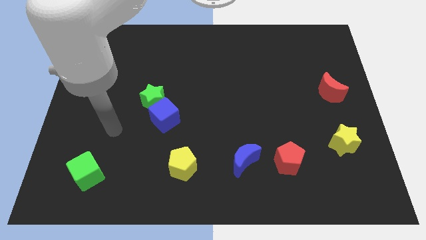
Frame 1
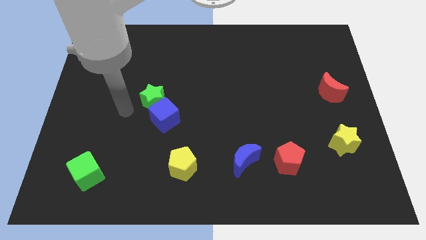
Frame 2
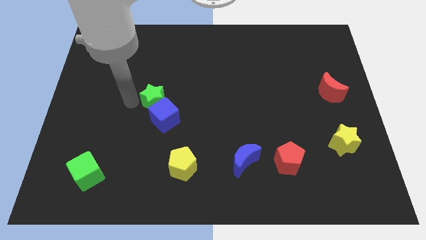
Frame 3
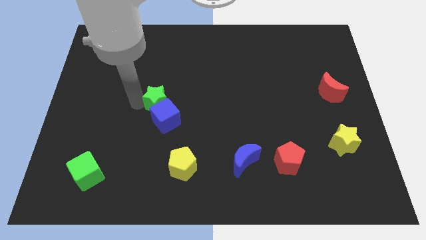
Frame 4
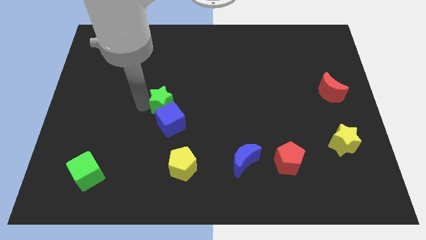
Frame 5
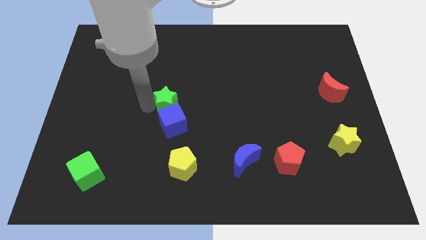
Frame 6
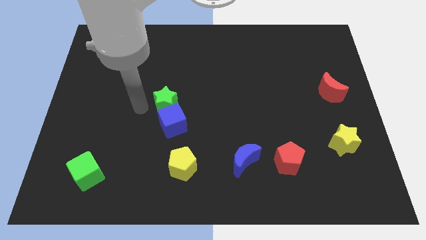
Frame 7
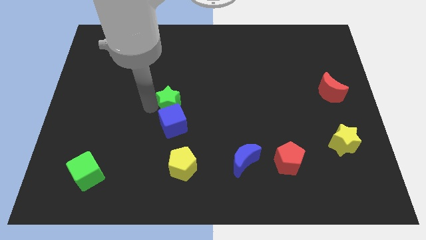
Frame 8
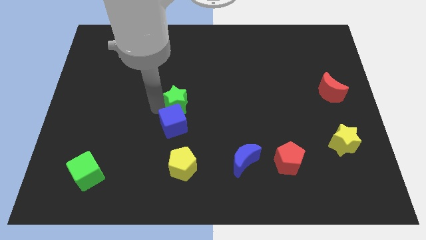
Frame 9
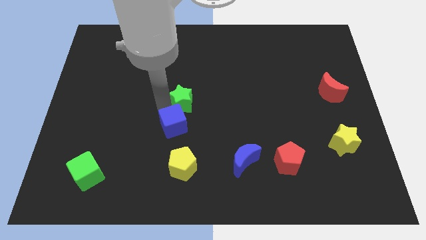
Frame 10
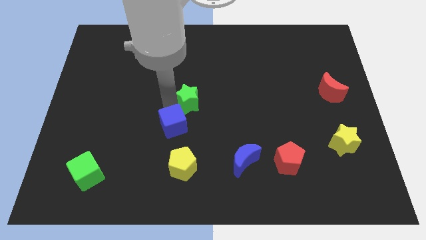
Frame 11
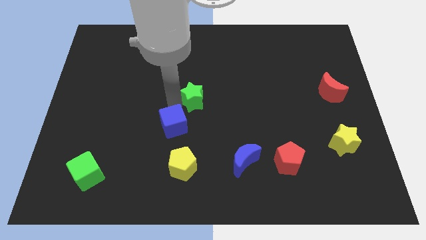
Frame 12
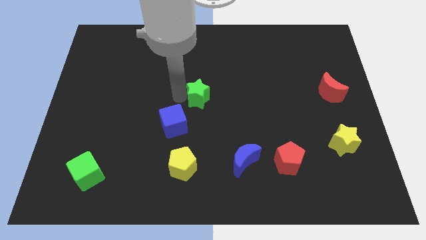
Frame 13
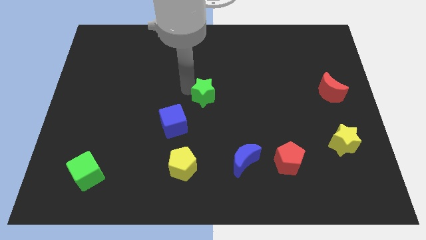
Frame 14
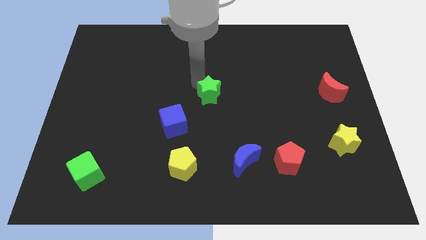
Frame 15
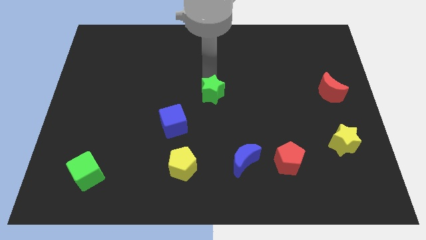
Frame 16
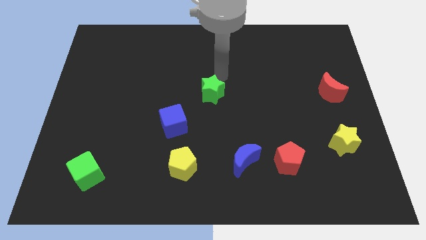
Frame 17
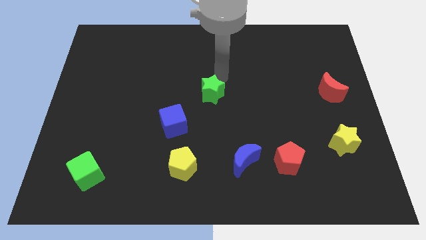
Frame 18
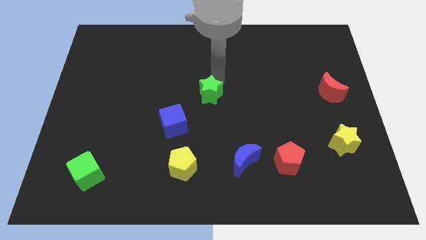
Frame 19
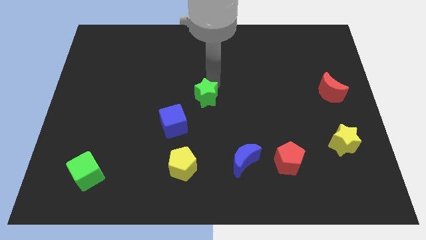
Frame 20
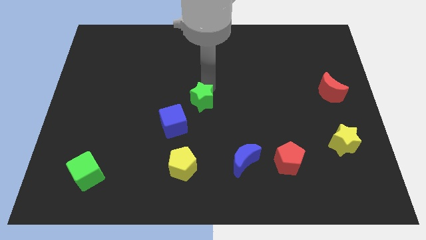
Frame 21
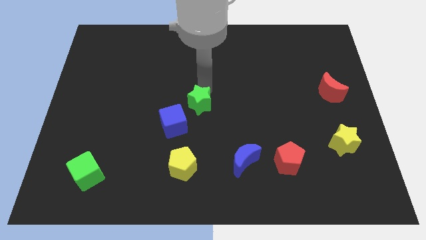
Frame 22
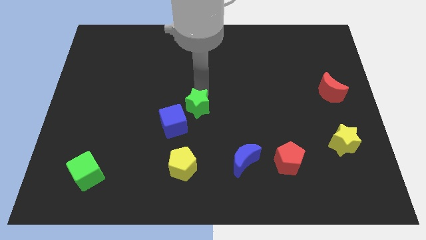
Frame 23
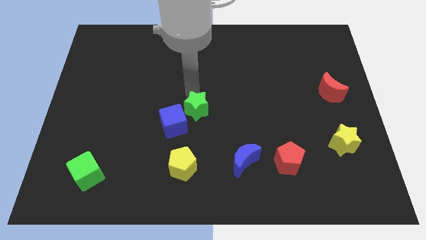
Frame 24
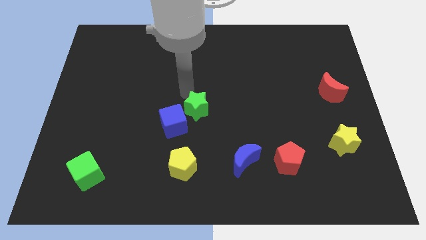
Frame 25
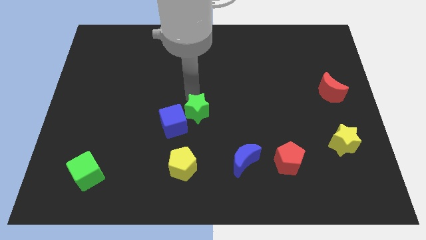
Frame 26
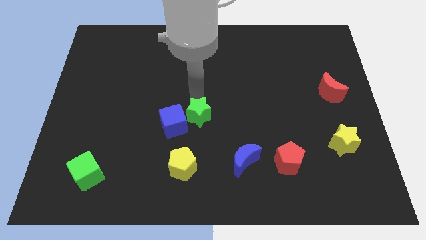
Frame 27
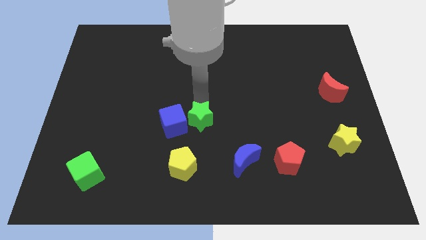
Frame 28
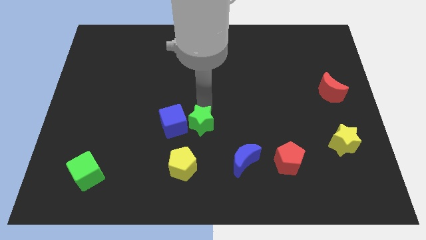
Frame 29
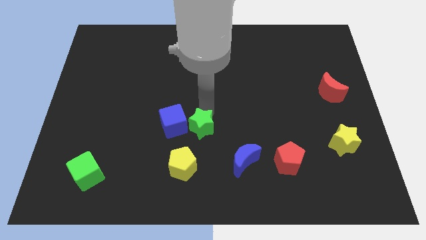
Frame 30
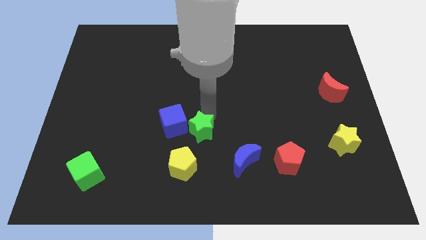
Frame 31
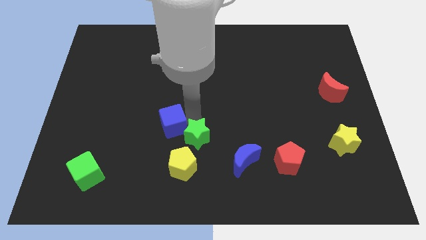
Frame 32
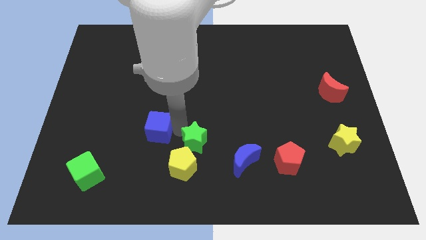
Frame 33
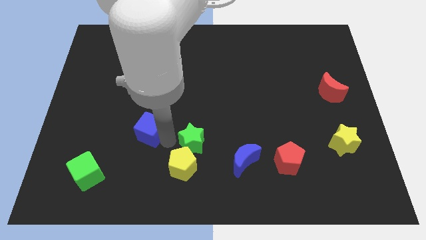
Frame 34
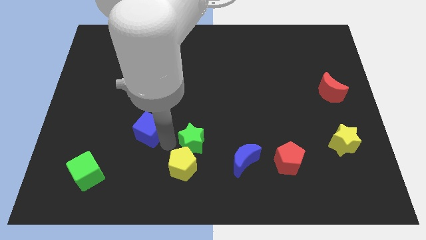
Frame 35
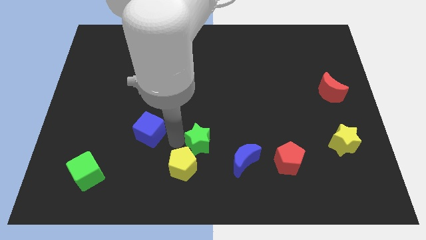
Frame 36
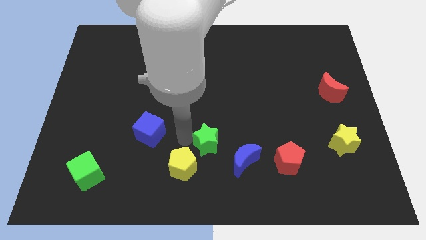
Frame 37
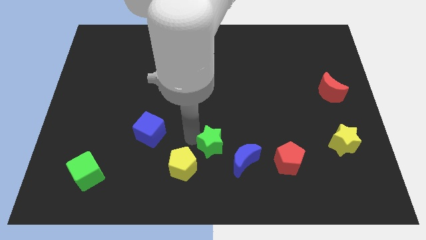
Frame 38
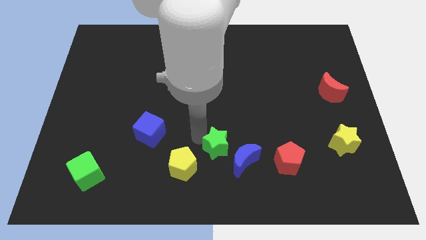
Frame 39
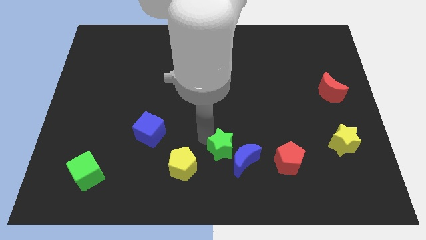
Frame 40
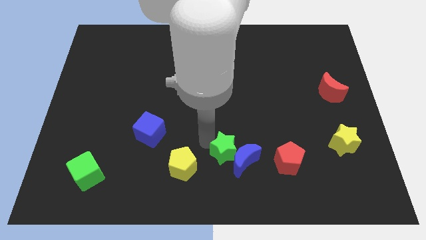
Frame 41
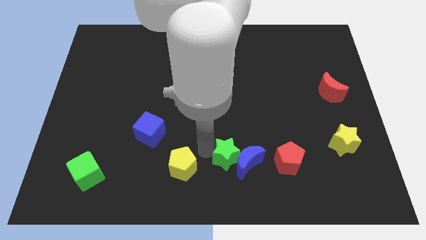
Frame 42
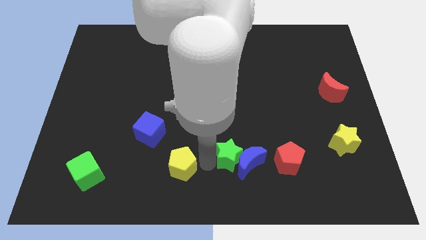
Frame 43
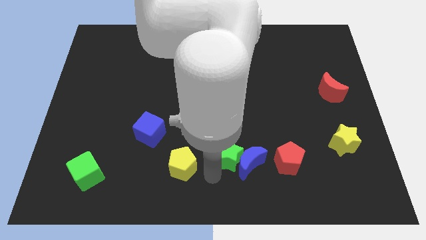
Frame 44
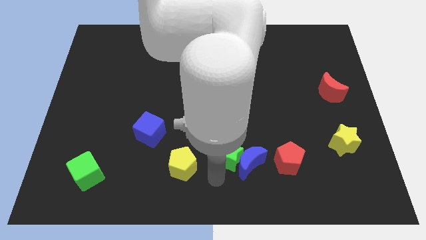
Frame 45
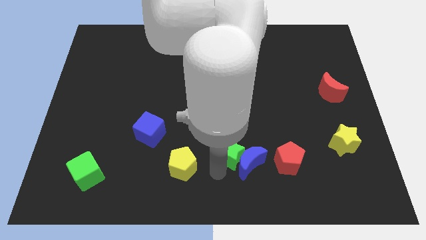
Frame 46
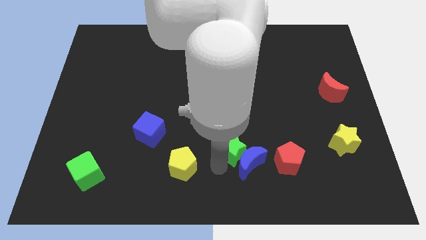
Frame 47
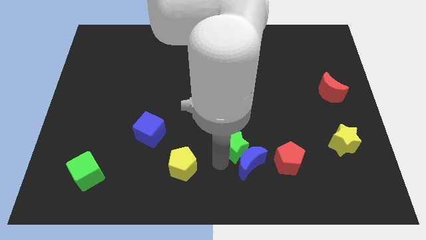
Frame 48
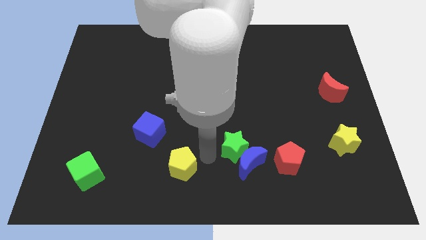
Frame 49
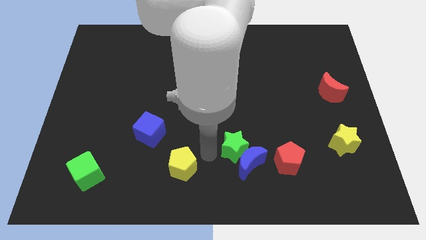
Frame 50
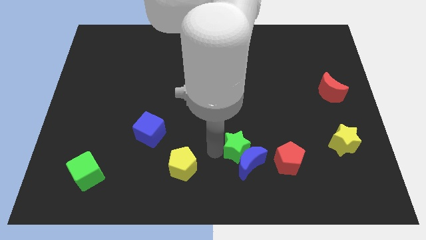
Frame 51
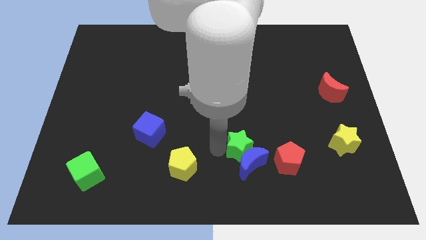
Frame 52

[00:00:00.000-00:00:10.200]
slide the green star to the top left side of the red pentagon

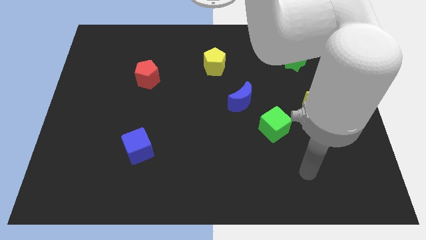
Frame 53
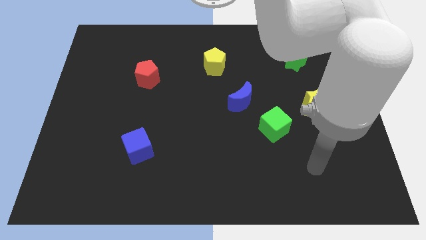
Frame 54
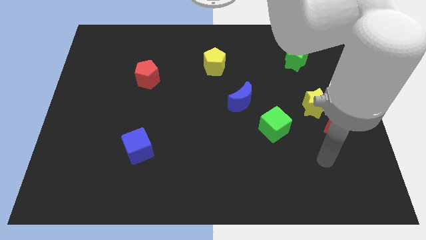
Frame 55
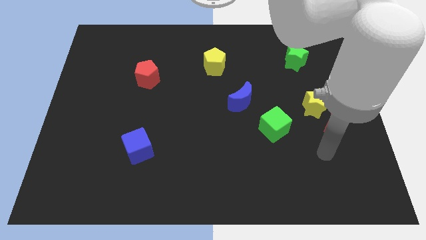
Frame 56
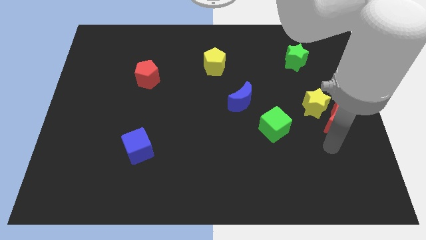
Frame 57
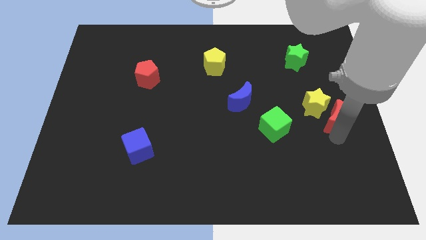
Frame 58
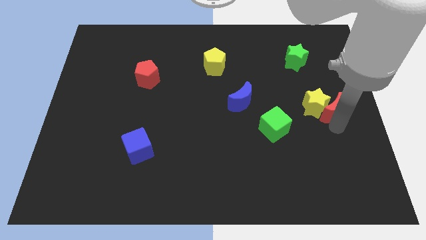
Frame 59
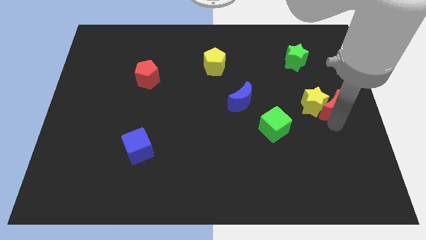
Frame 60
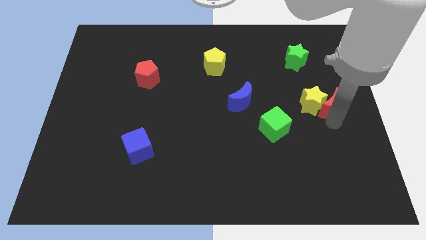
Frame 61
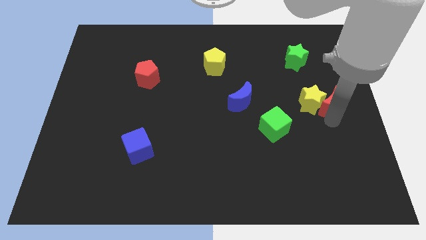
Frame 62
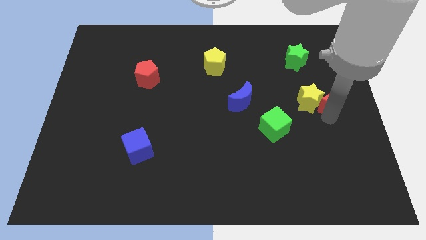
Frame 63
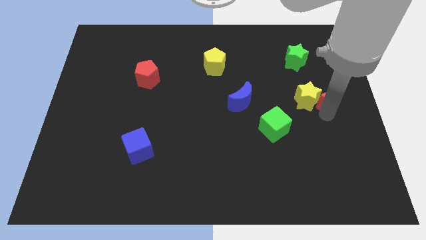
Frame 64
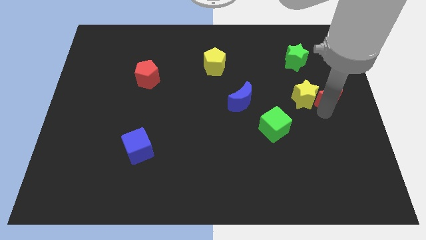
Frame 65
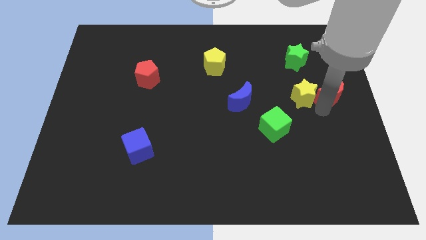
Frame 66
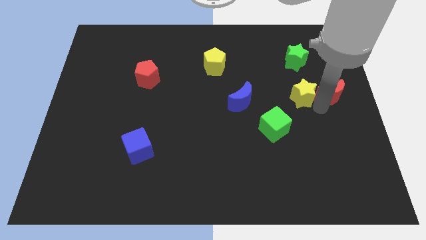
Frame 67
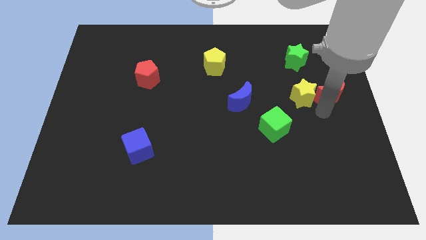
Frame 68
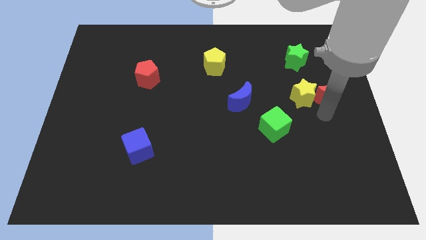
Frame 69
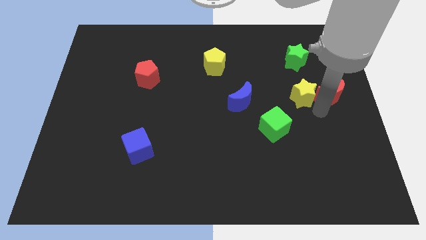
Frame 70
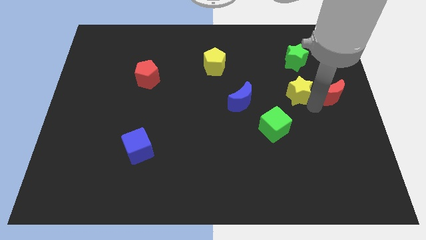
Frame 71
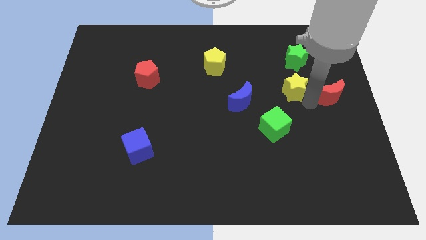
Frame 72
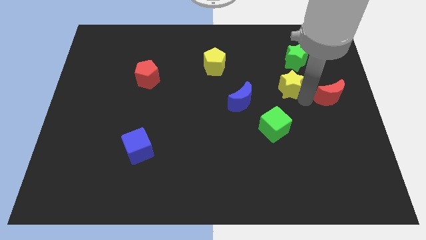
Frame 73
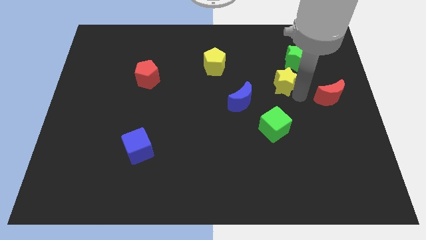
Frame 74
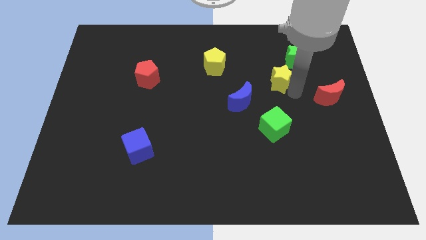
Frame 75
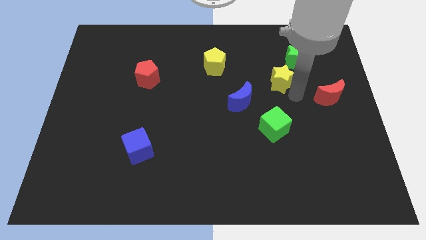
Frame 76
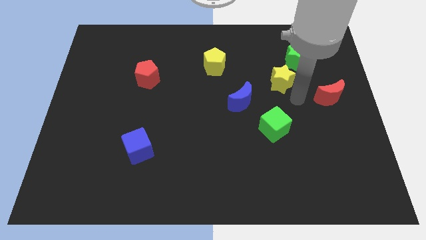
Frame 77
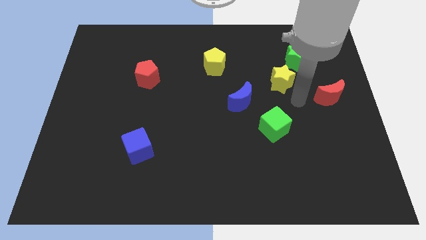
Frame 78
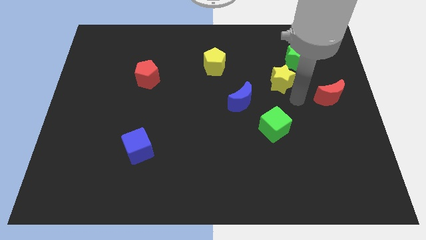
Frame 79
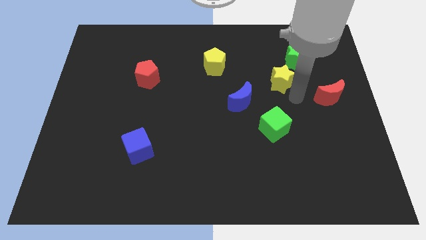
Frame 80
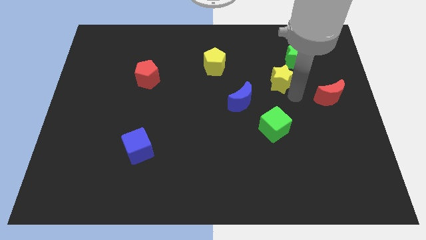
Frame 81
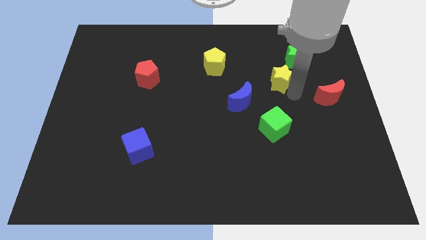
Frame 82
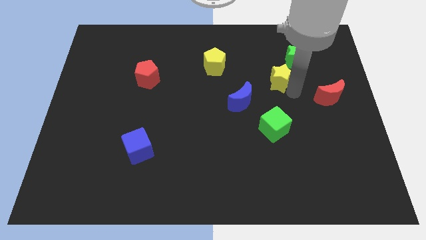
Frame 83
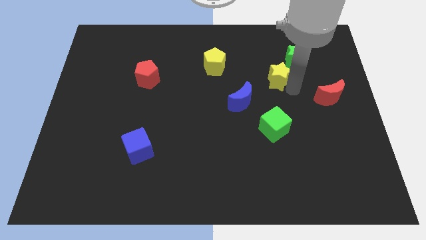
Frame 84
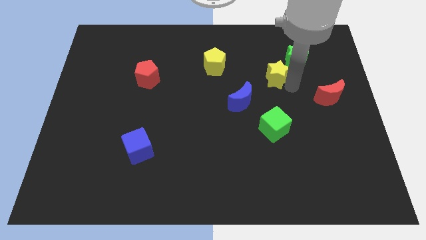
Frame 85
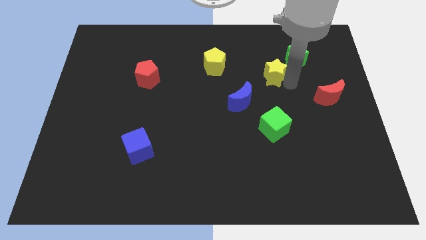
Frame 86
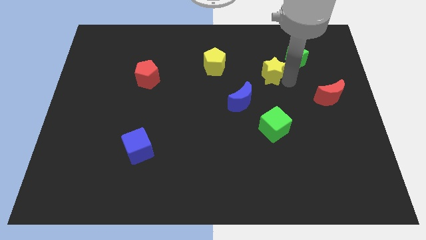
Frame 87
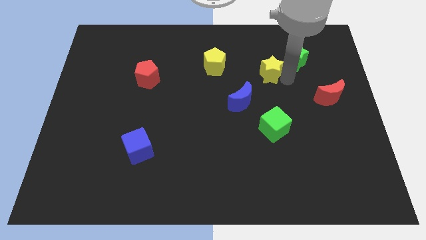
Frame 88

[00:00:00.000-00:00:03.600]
push the yellow star just left of the green star
